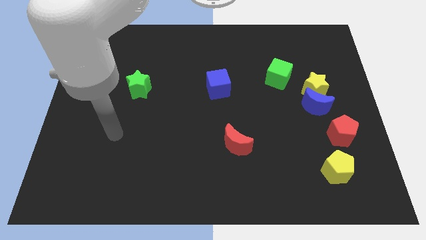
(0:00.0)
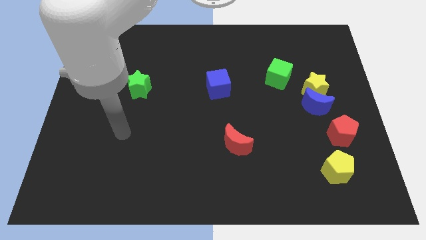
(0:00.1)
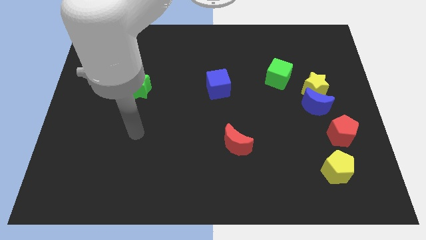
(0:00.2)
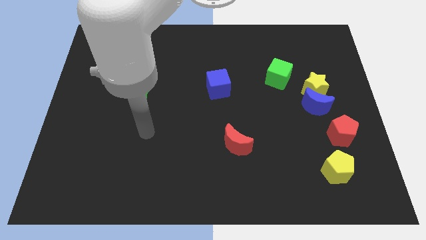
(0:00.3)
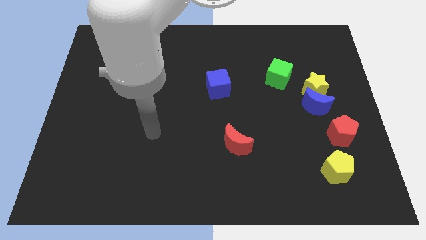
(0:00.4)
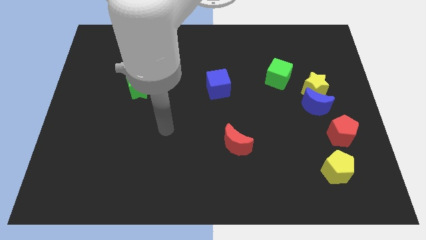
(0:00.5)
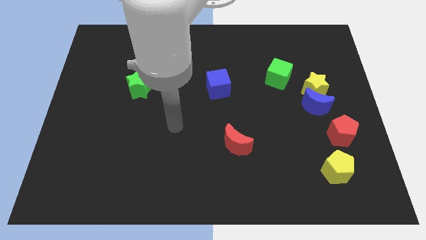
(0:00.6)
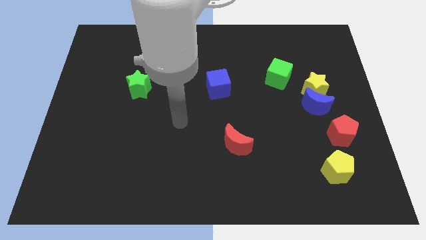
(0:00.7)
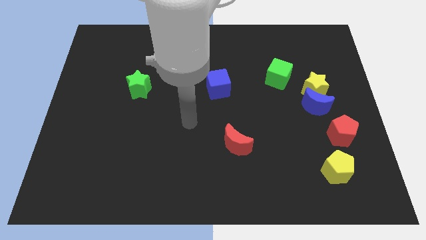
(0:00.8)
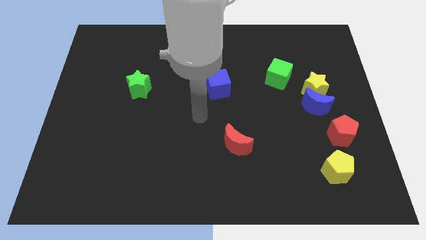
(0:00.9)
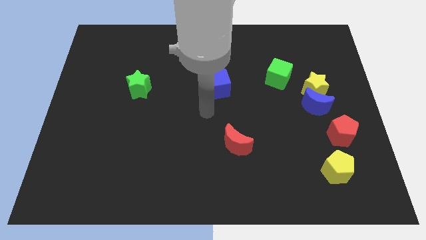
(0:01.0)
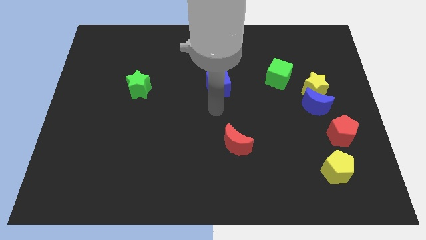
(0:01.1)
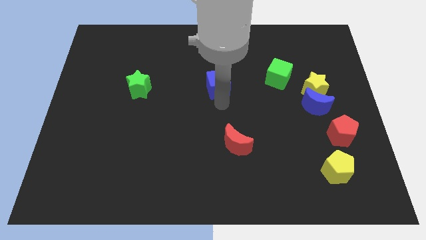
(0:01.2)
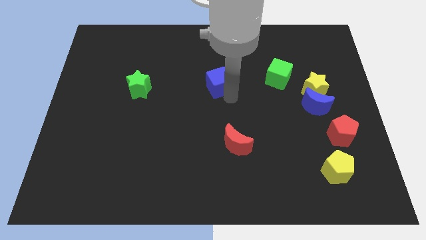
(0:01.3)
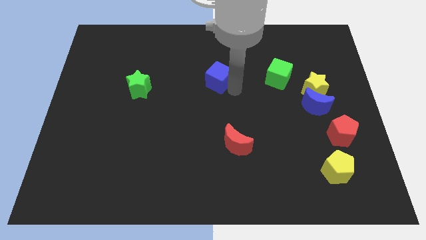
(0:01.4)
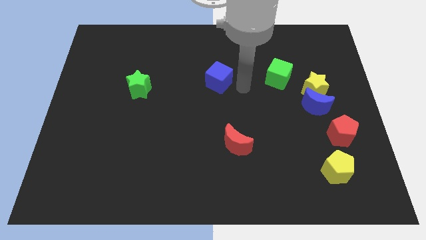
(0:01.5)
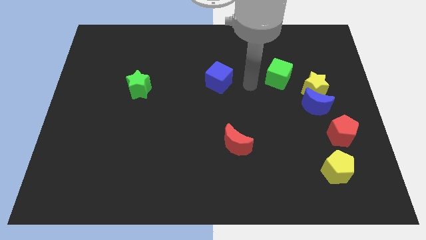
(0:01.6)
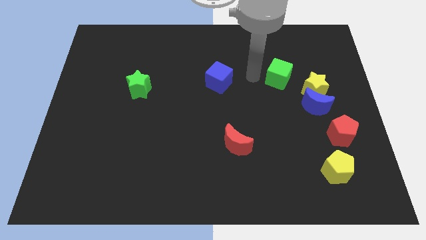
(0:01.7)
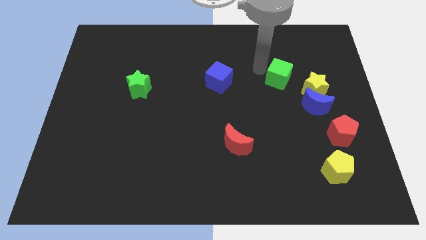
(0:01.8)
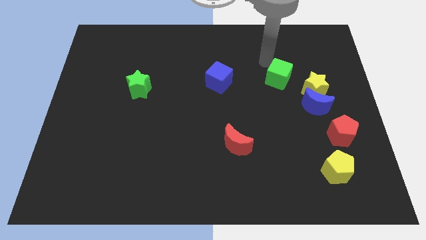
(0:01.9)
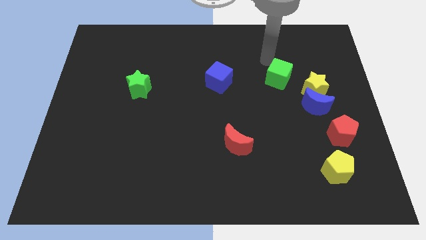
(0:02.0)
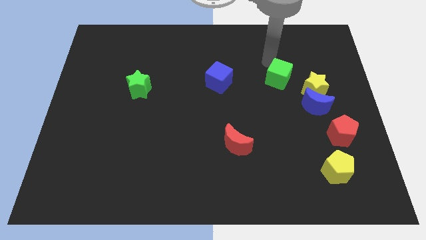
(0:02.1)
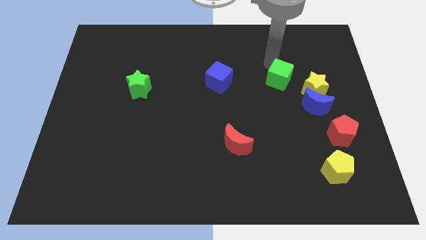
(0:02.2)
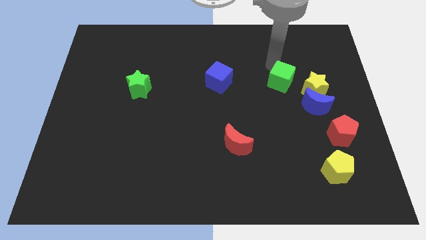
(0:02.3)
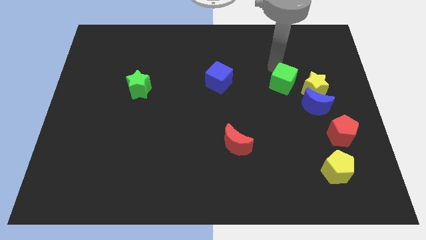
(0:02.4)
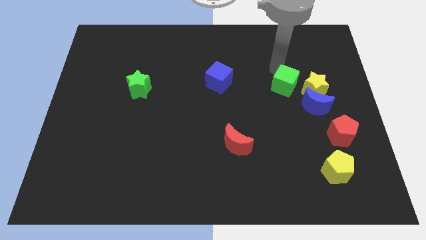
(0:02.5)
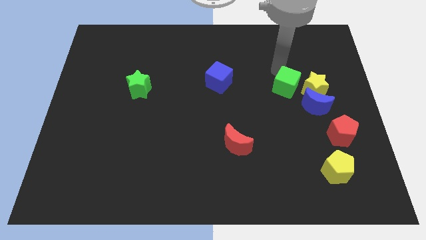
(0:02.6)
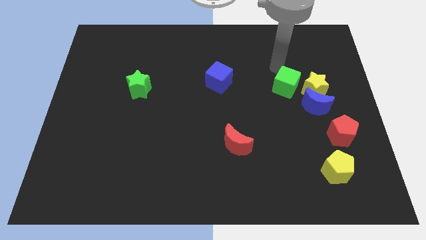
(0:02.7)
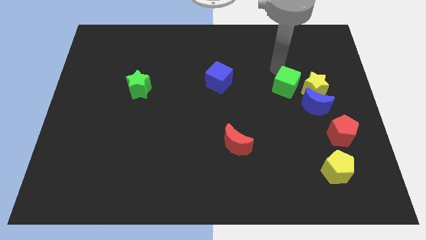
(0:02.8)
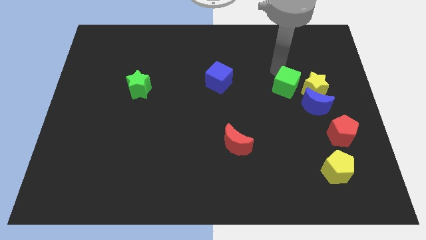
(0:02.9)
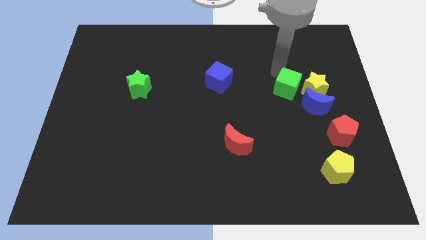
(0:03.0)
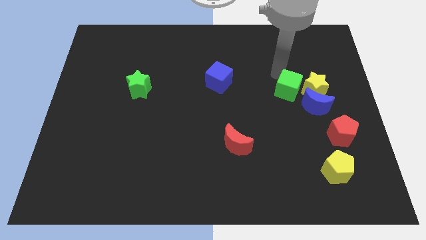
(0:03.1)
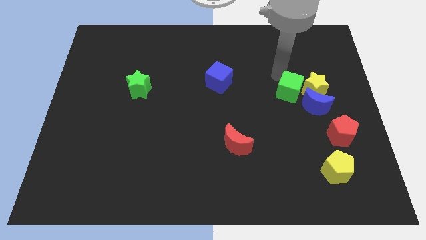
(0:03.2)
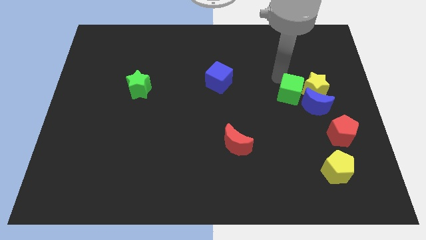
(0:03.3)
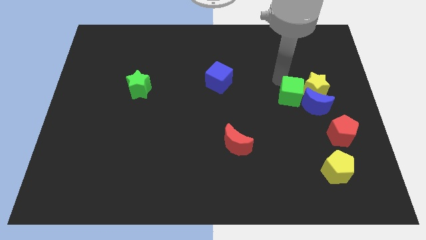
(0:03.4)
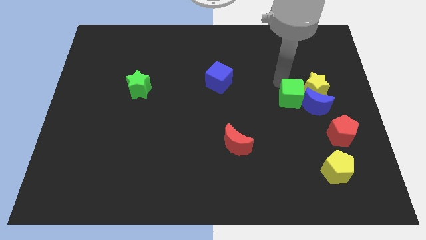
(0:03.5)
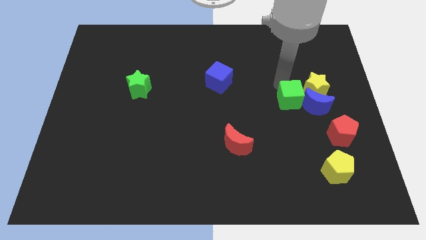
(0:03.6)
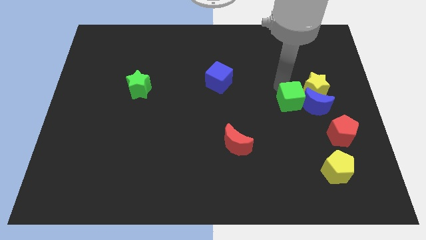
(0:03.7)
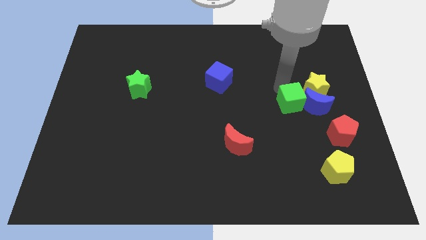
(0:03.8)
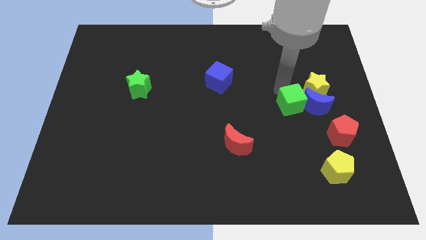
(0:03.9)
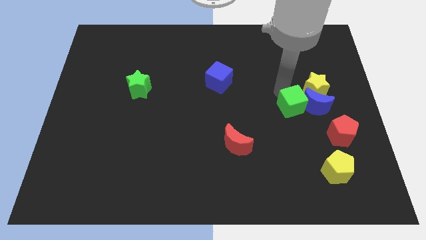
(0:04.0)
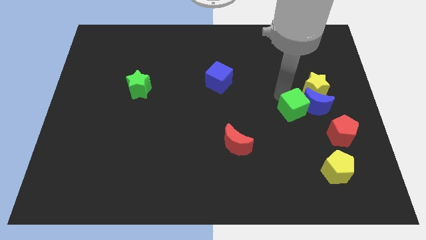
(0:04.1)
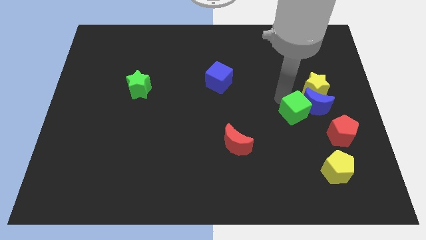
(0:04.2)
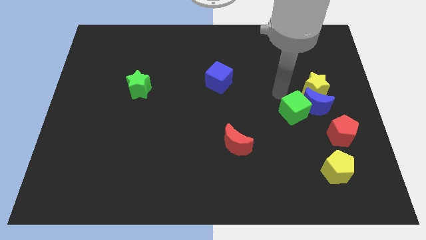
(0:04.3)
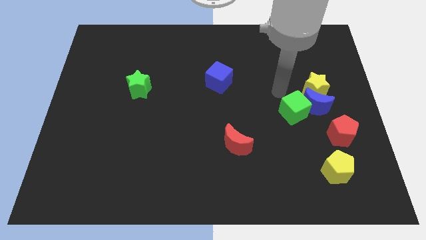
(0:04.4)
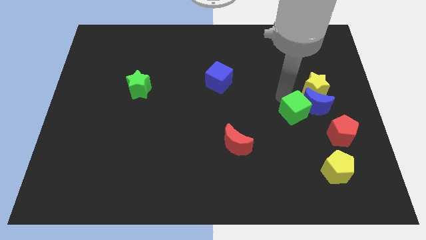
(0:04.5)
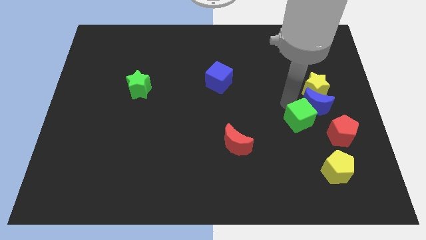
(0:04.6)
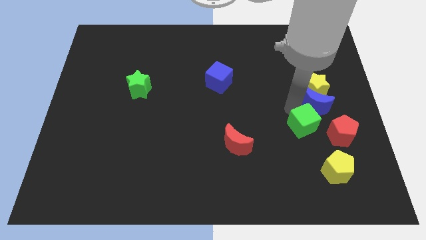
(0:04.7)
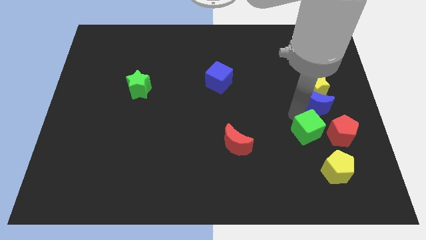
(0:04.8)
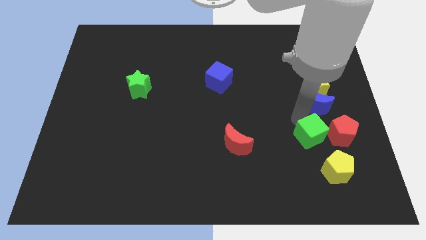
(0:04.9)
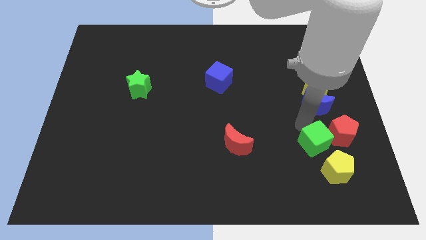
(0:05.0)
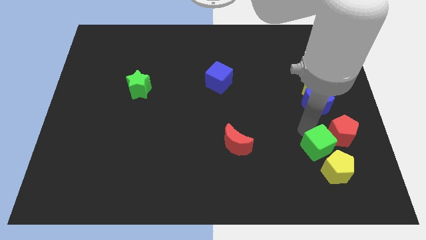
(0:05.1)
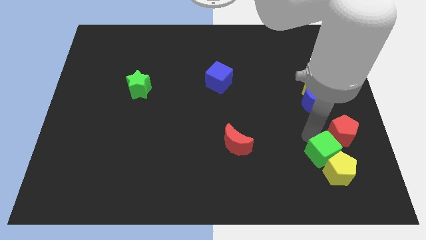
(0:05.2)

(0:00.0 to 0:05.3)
put the green cube close to the yellow pentagon

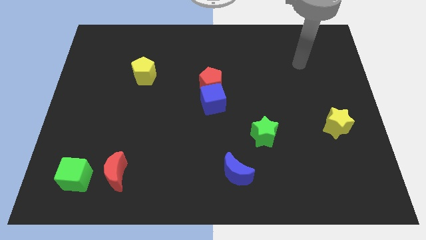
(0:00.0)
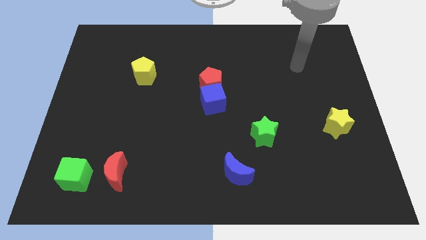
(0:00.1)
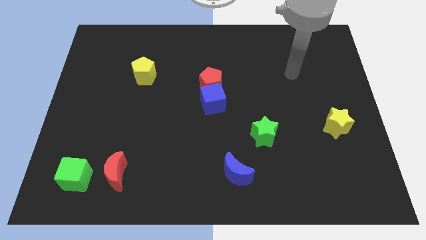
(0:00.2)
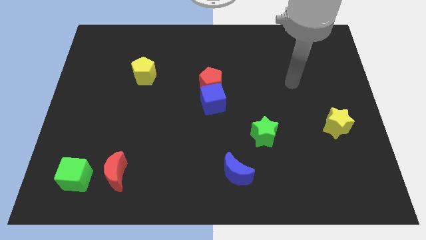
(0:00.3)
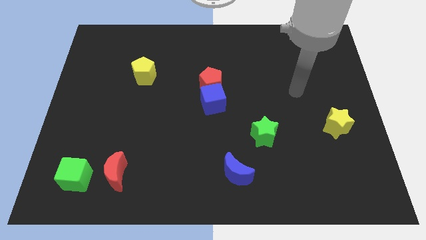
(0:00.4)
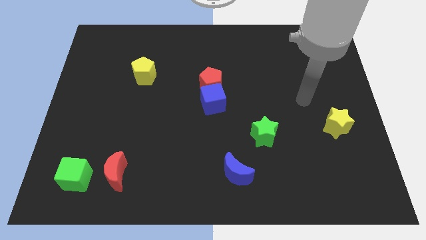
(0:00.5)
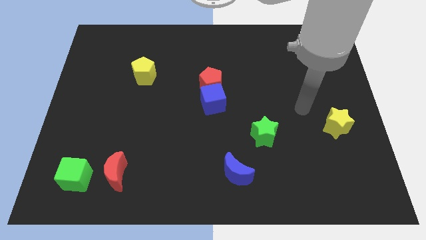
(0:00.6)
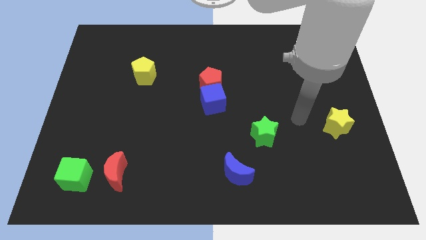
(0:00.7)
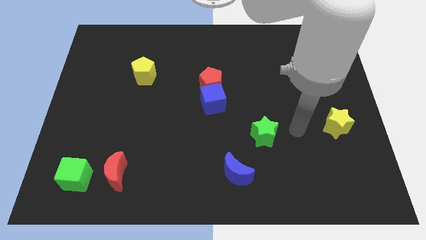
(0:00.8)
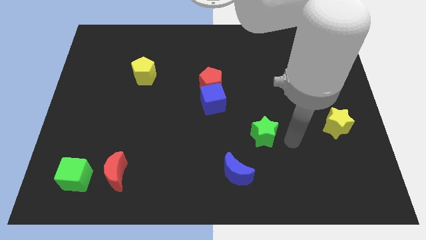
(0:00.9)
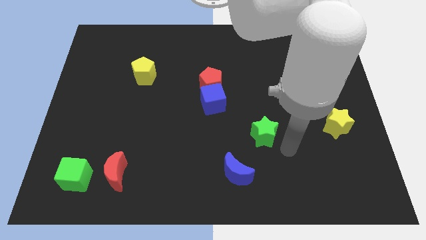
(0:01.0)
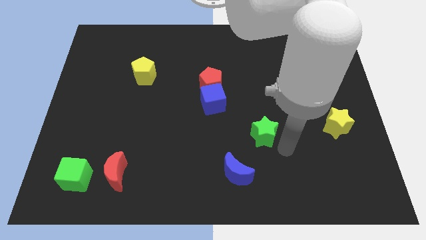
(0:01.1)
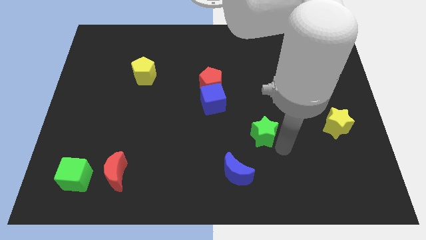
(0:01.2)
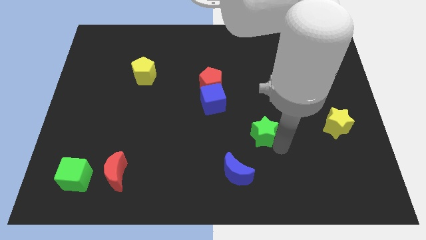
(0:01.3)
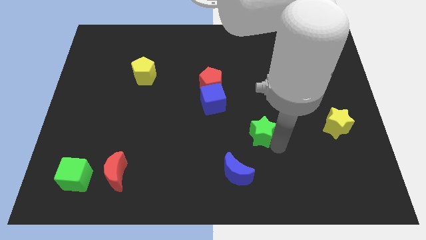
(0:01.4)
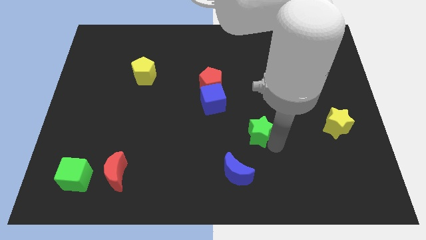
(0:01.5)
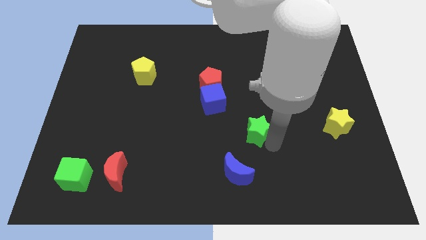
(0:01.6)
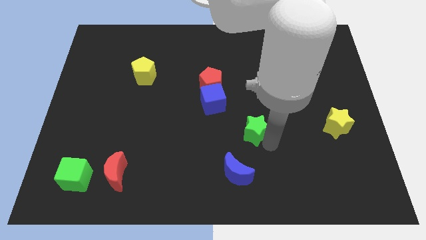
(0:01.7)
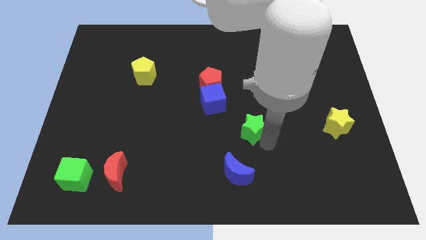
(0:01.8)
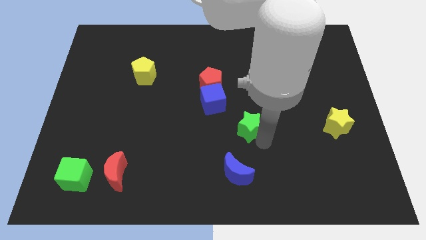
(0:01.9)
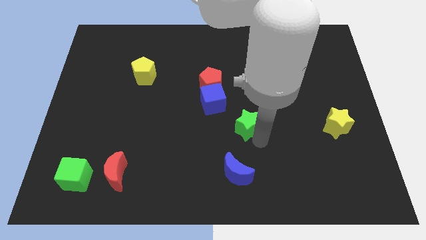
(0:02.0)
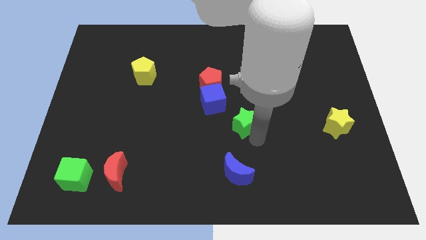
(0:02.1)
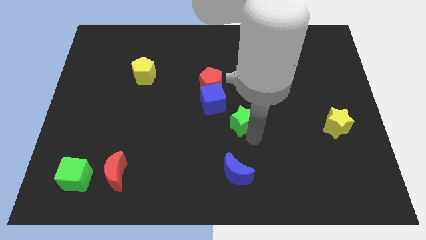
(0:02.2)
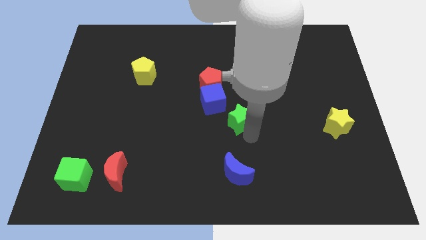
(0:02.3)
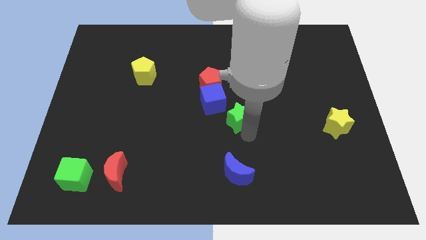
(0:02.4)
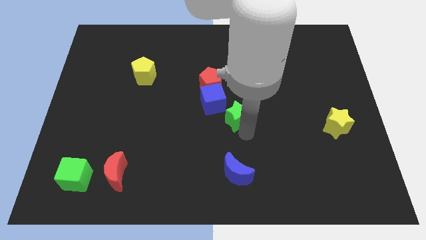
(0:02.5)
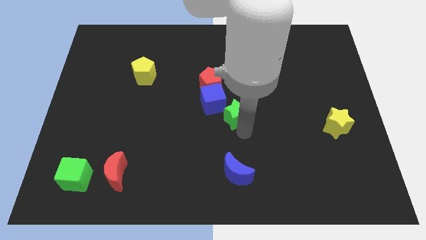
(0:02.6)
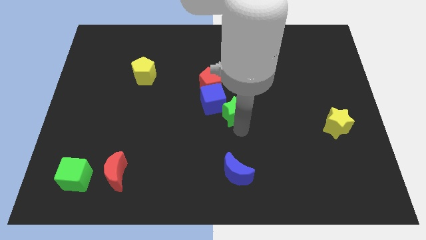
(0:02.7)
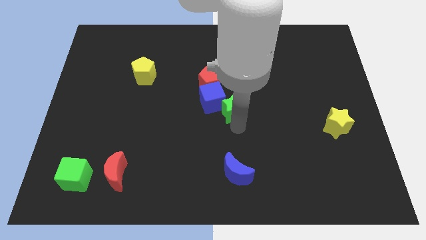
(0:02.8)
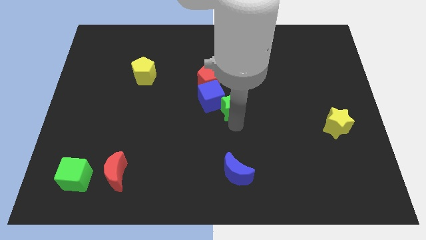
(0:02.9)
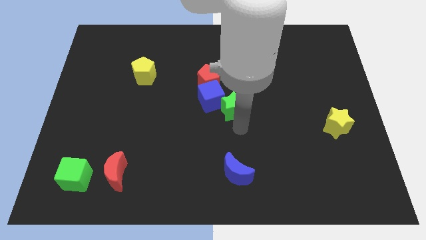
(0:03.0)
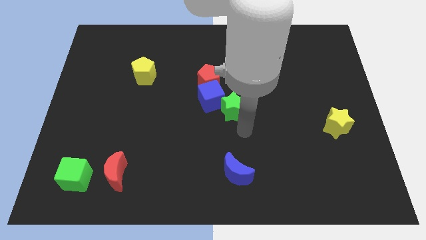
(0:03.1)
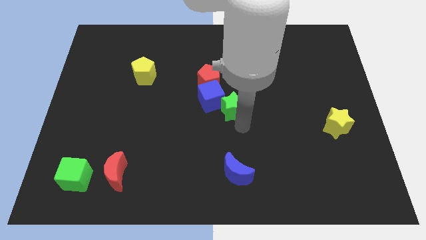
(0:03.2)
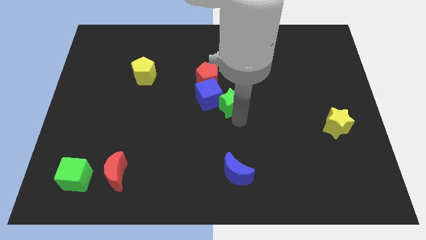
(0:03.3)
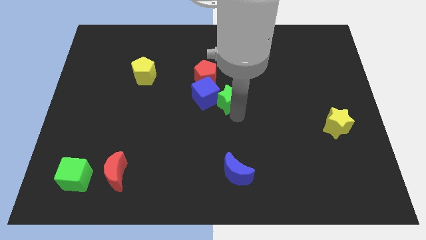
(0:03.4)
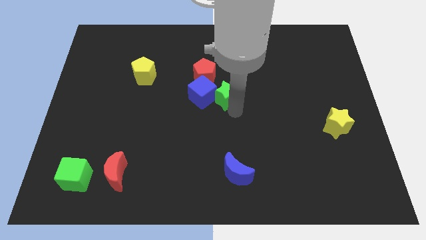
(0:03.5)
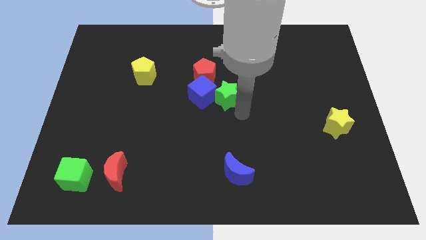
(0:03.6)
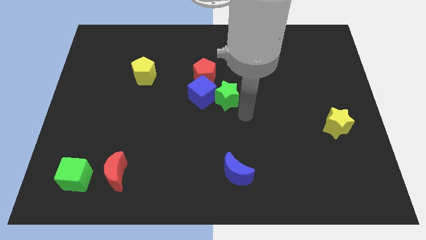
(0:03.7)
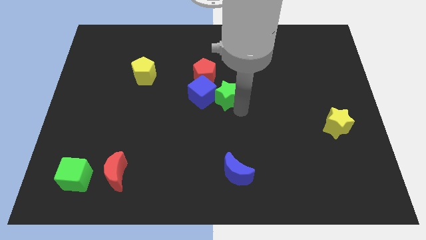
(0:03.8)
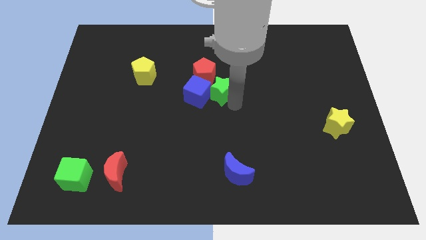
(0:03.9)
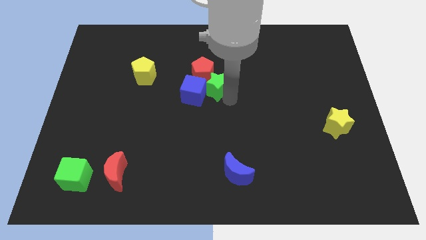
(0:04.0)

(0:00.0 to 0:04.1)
move the green star next to the red pentagon
